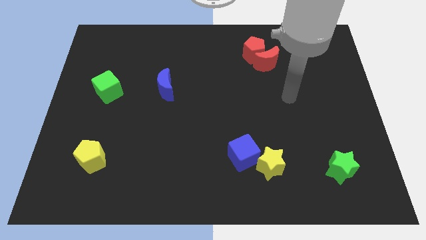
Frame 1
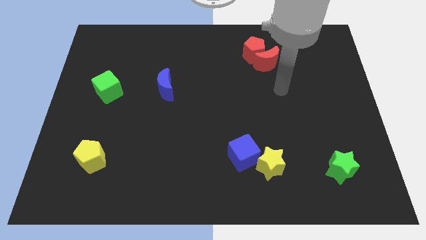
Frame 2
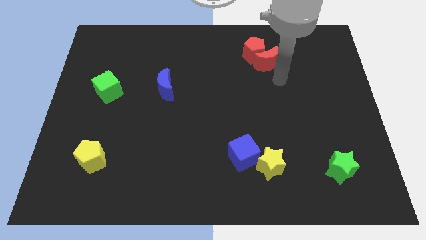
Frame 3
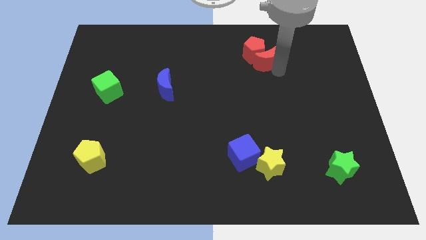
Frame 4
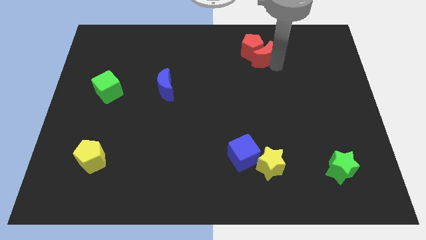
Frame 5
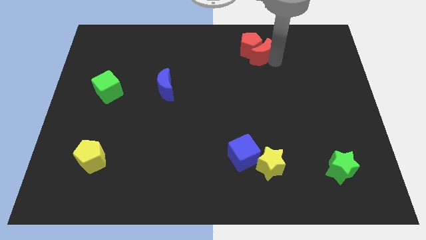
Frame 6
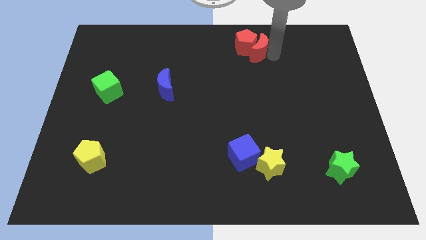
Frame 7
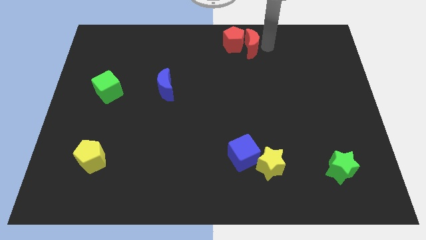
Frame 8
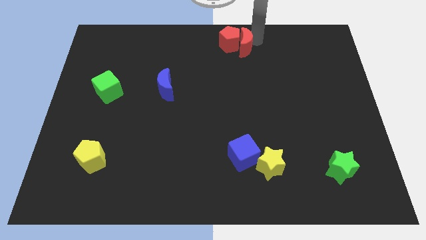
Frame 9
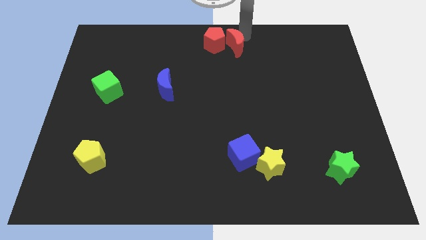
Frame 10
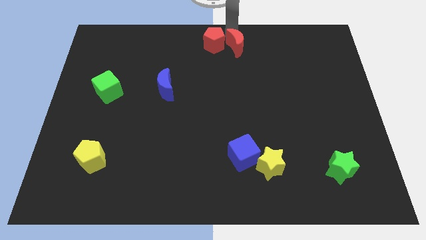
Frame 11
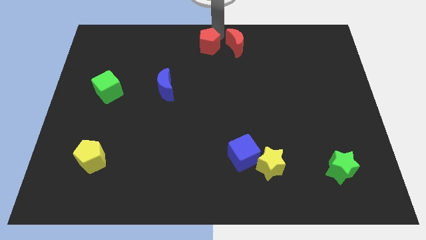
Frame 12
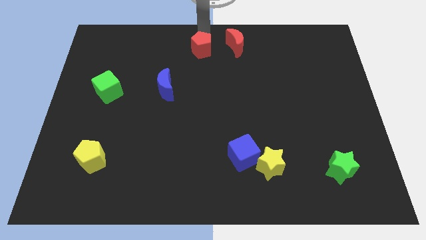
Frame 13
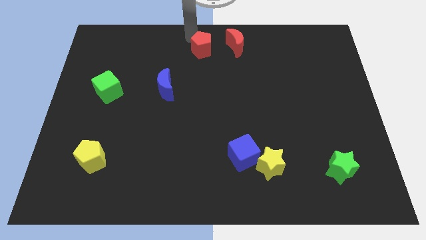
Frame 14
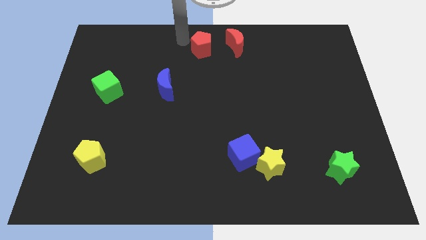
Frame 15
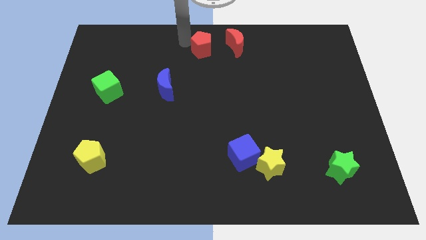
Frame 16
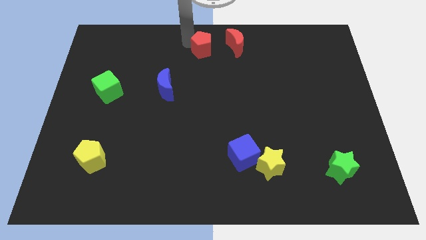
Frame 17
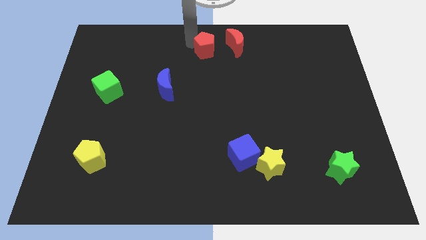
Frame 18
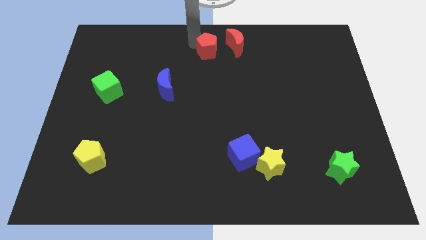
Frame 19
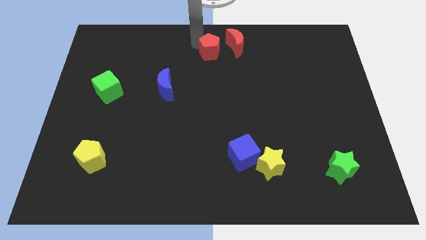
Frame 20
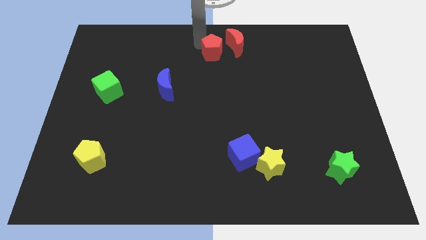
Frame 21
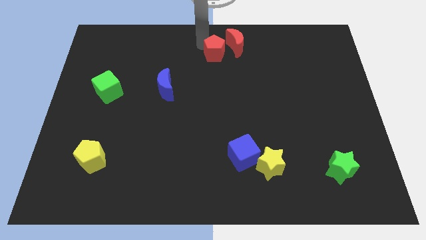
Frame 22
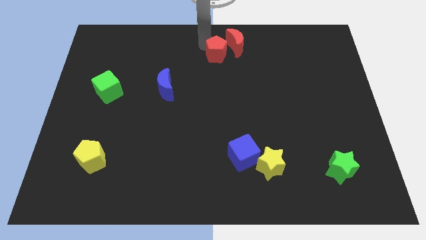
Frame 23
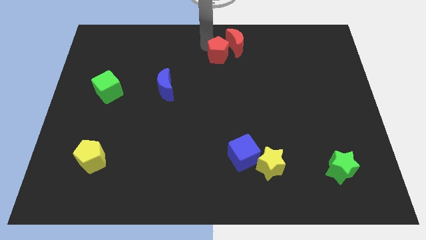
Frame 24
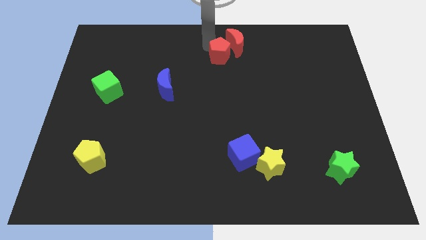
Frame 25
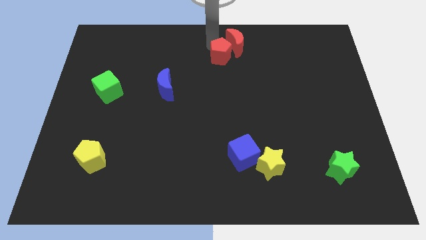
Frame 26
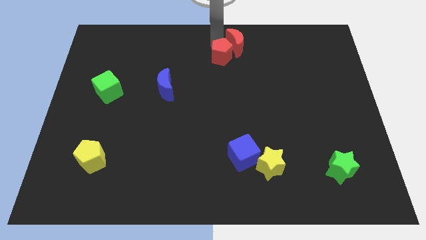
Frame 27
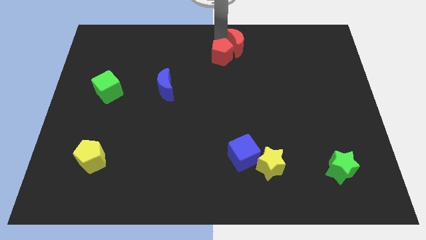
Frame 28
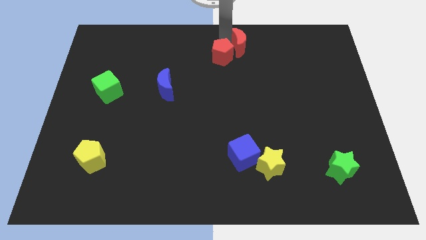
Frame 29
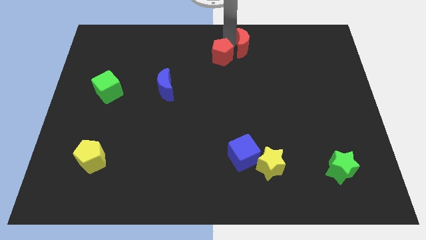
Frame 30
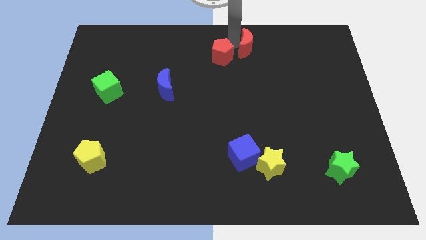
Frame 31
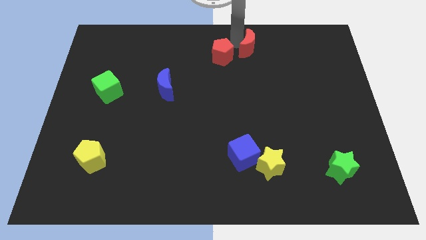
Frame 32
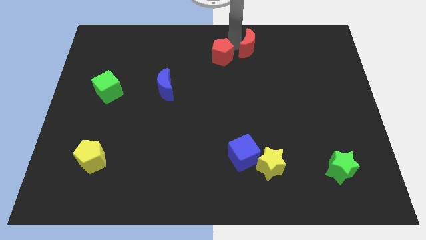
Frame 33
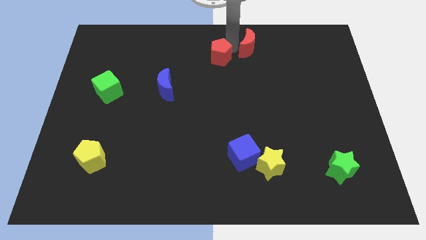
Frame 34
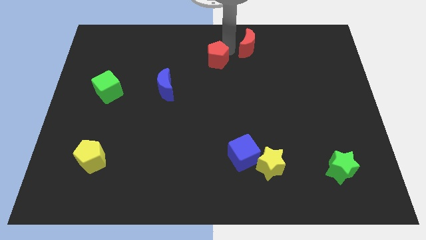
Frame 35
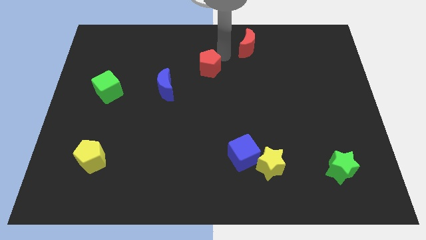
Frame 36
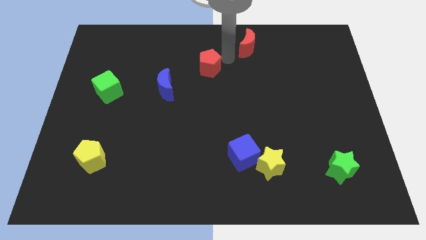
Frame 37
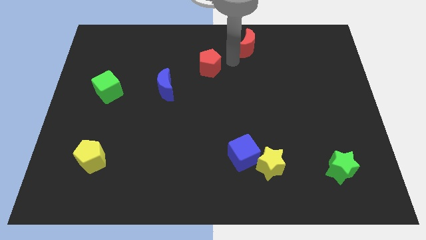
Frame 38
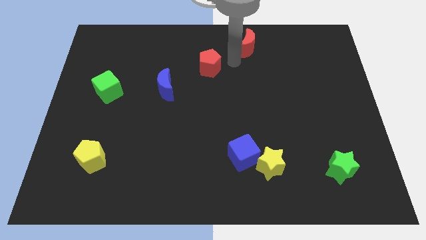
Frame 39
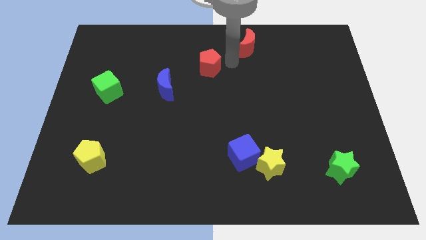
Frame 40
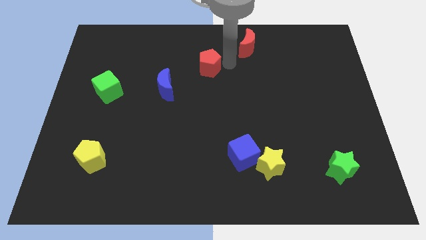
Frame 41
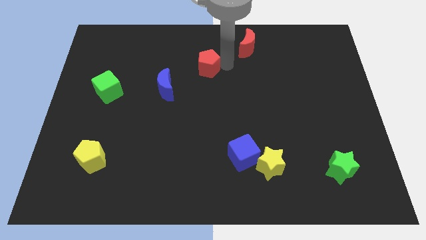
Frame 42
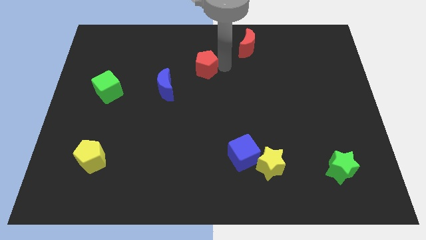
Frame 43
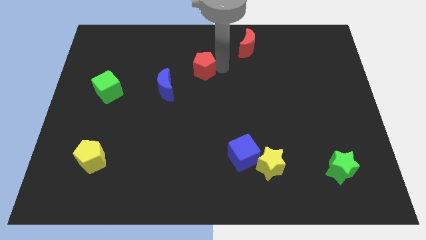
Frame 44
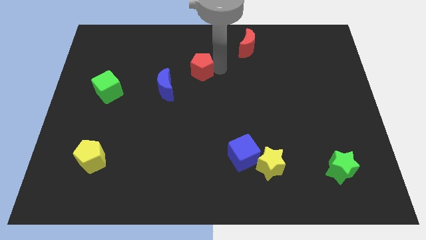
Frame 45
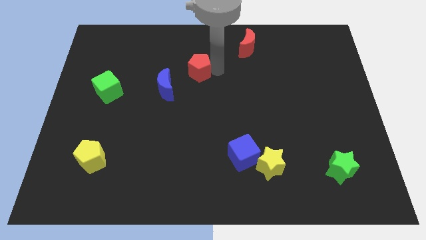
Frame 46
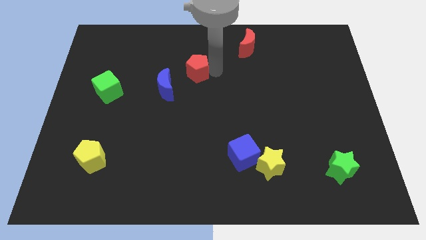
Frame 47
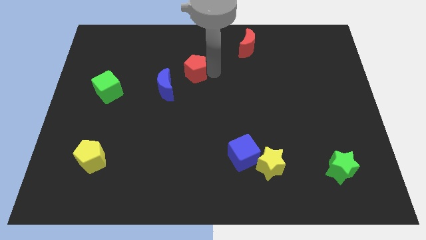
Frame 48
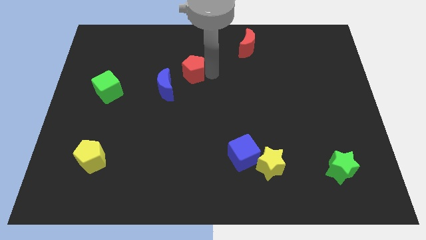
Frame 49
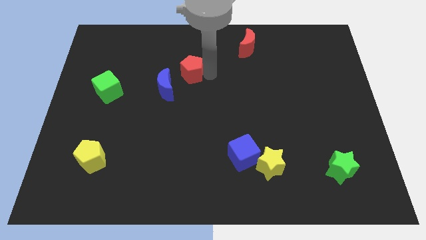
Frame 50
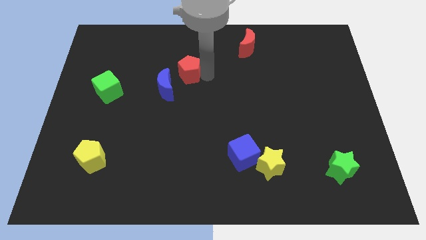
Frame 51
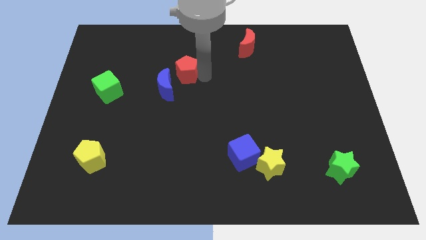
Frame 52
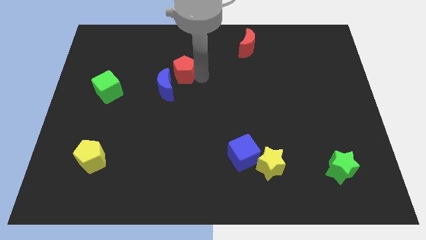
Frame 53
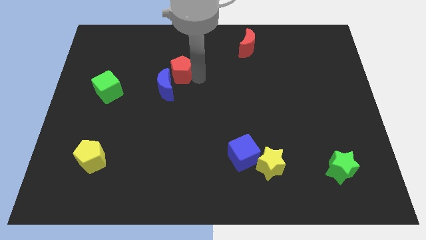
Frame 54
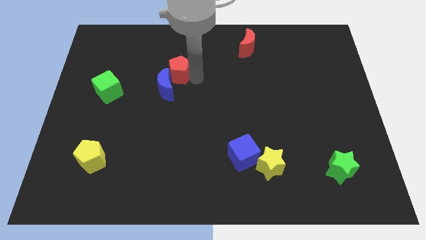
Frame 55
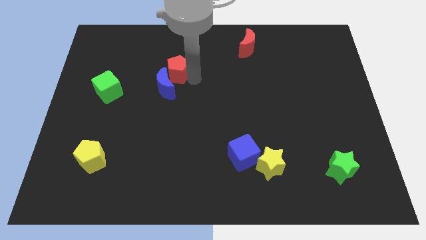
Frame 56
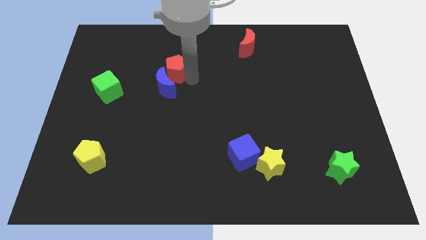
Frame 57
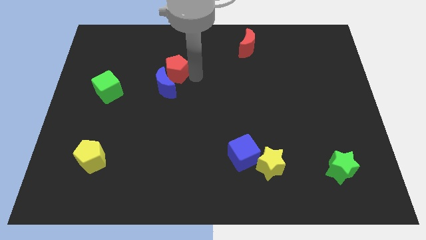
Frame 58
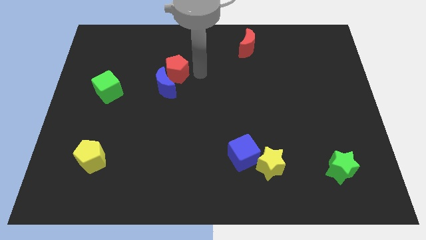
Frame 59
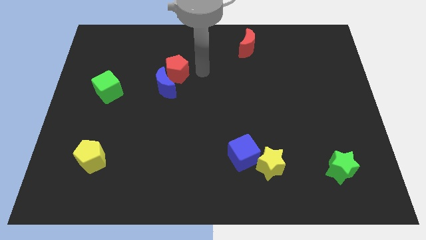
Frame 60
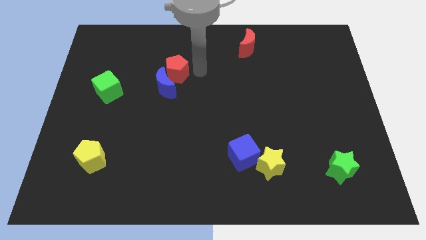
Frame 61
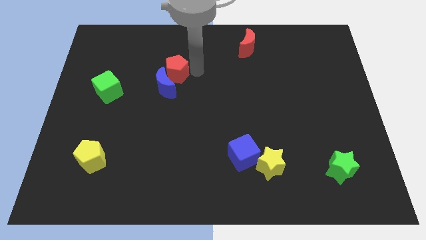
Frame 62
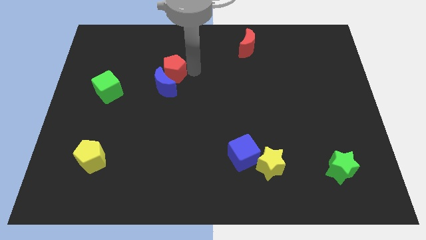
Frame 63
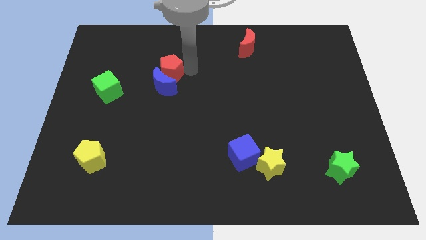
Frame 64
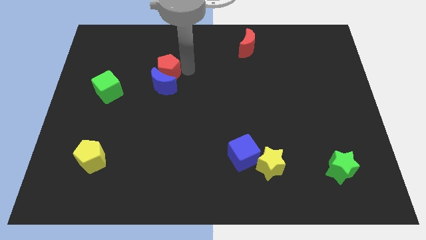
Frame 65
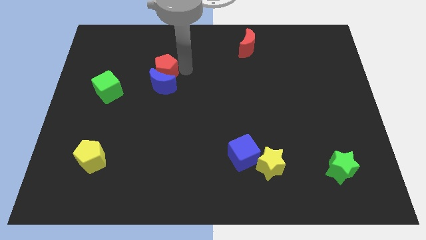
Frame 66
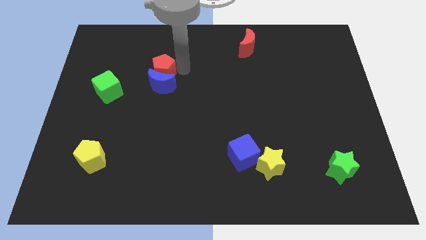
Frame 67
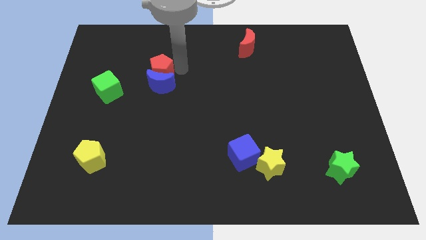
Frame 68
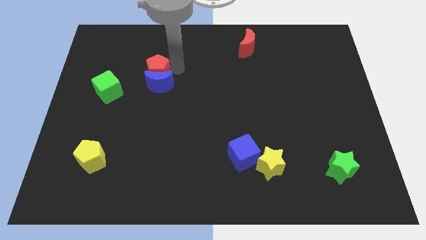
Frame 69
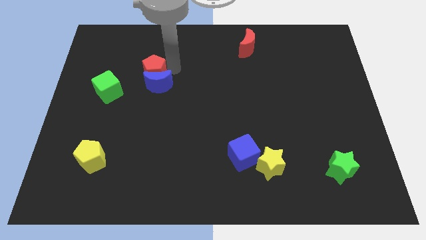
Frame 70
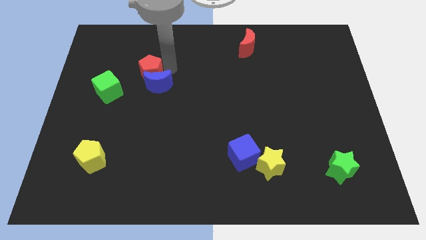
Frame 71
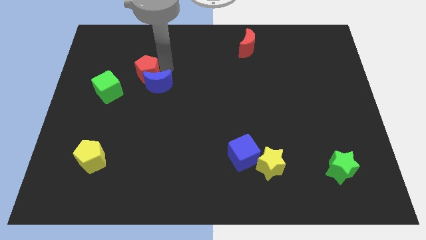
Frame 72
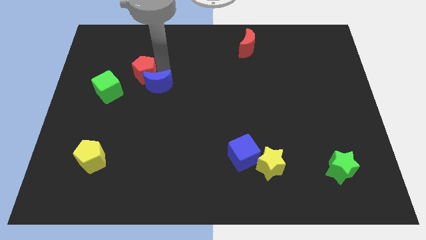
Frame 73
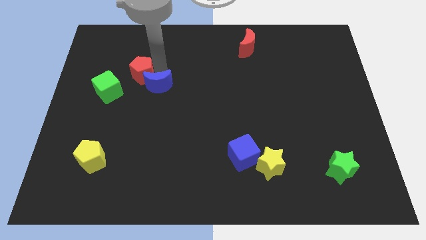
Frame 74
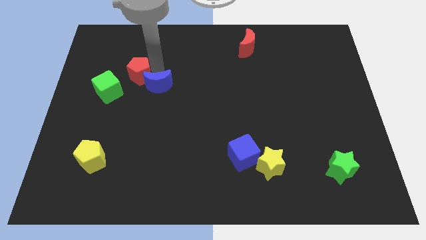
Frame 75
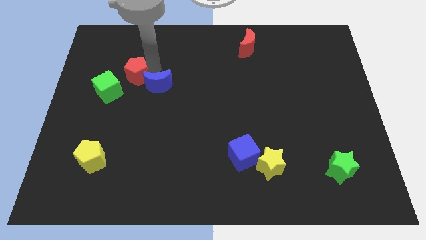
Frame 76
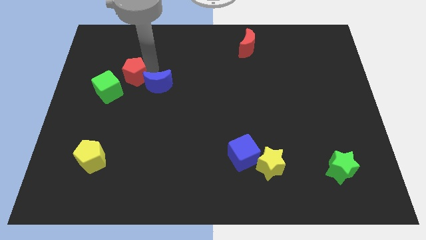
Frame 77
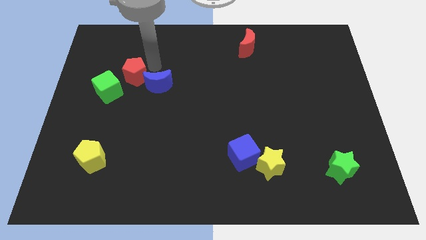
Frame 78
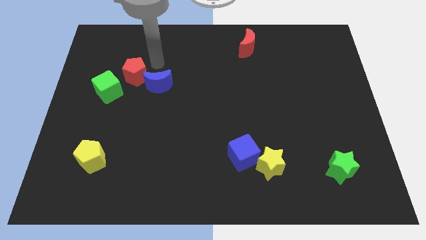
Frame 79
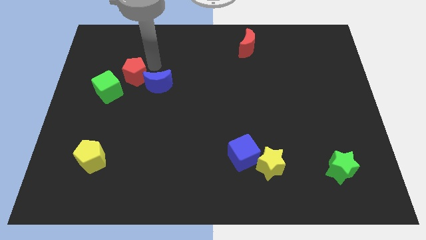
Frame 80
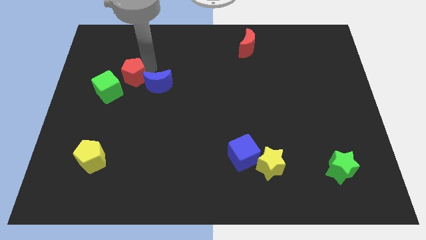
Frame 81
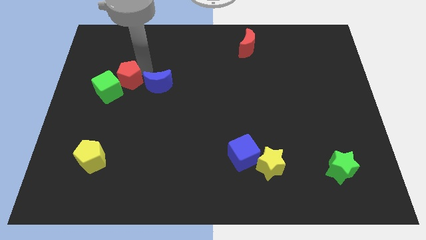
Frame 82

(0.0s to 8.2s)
slide the red pentagon towards the green cube
